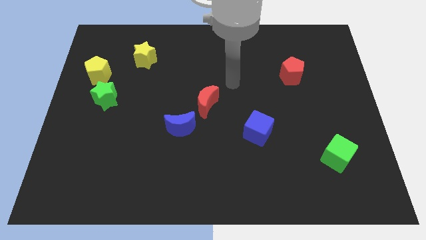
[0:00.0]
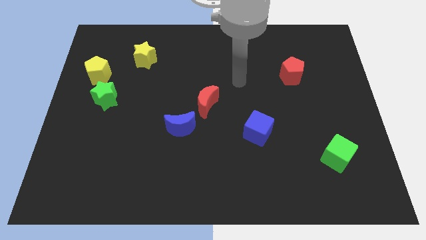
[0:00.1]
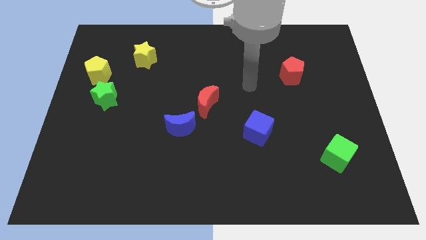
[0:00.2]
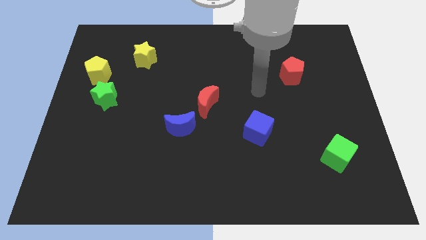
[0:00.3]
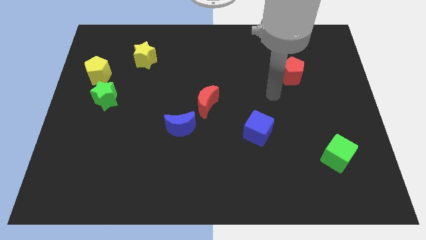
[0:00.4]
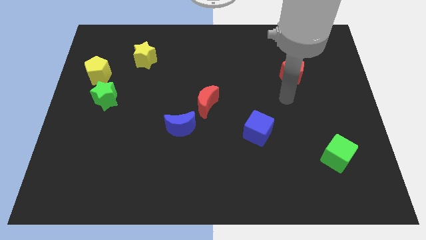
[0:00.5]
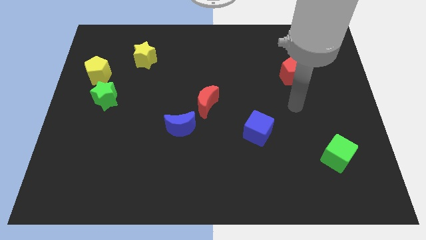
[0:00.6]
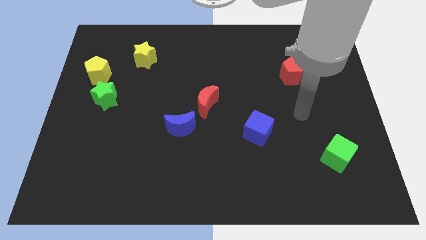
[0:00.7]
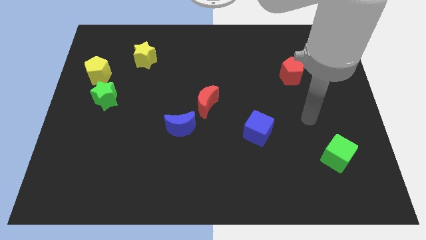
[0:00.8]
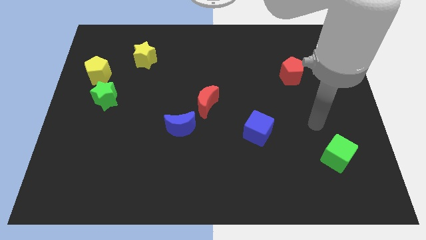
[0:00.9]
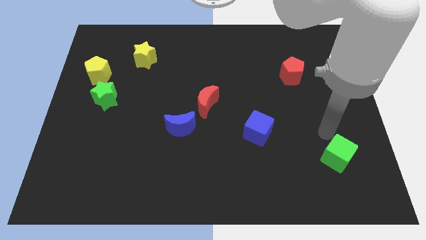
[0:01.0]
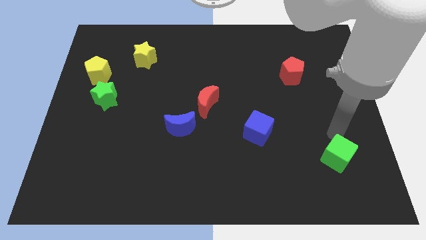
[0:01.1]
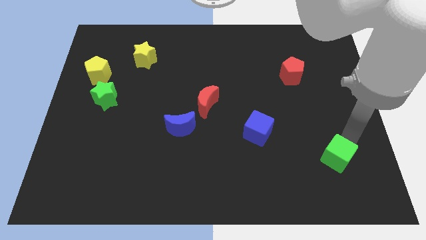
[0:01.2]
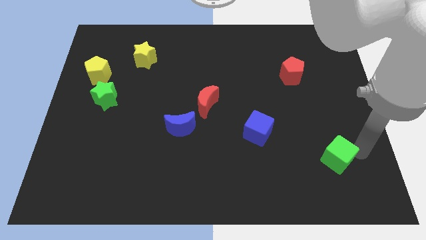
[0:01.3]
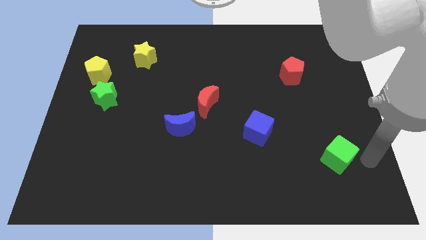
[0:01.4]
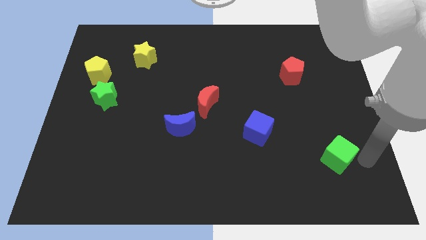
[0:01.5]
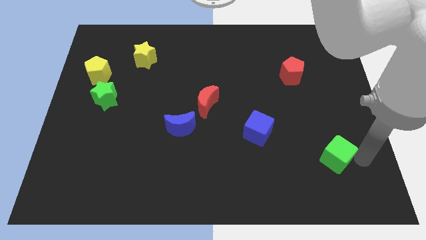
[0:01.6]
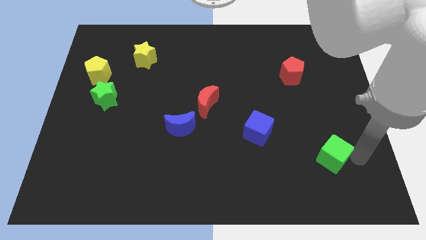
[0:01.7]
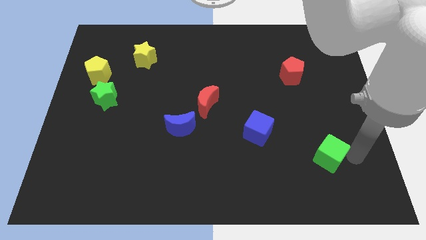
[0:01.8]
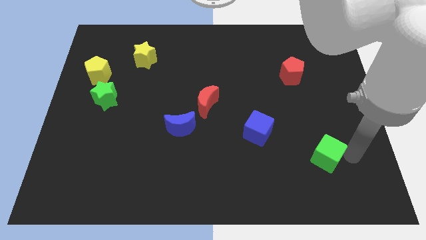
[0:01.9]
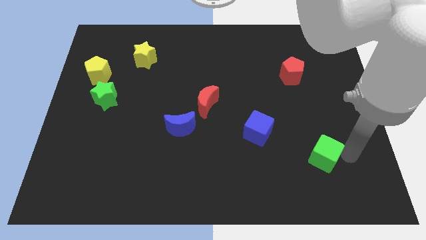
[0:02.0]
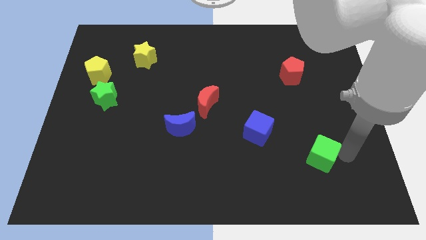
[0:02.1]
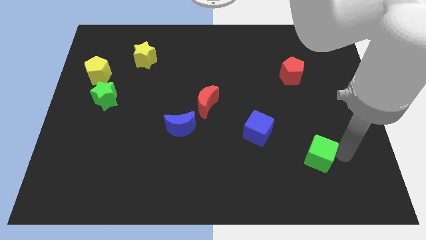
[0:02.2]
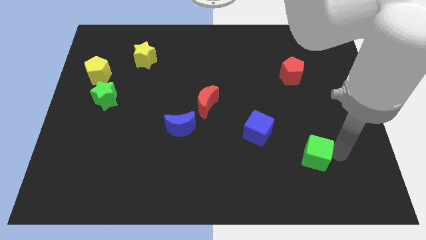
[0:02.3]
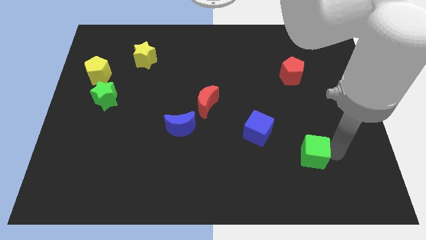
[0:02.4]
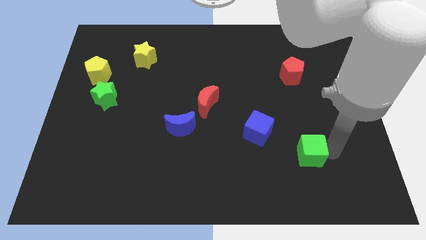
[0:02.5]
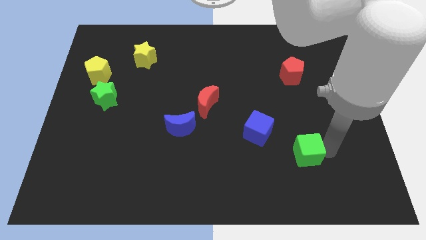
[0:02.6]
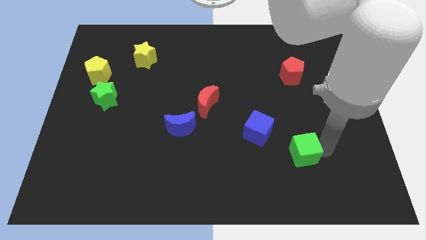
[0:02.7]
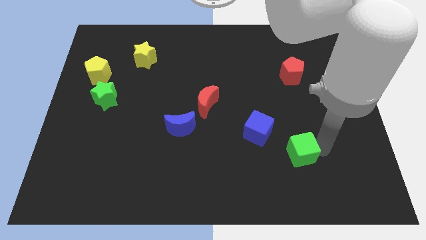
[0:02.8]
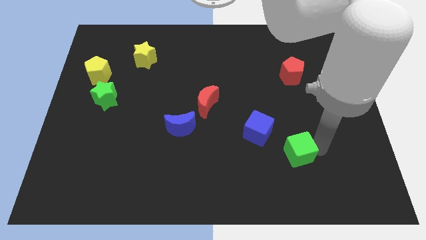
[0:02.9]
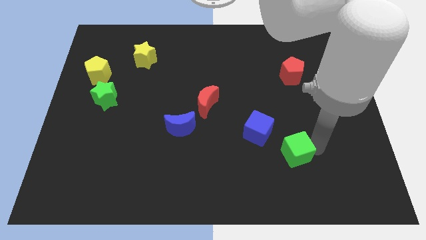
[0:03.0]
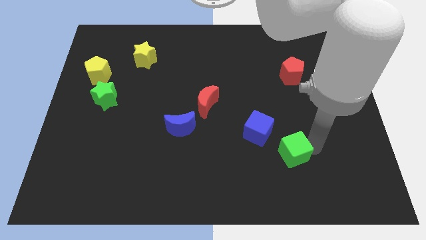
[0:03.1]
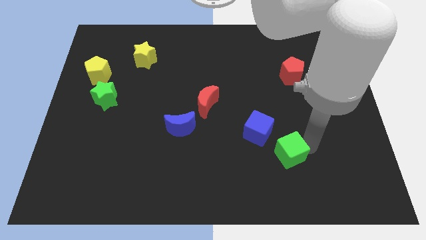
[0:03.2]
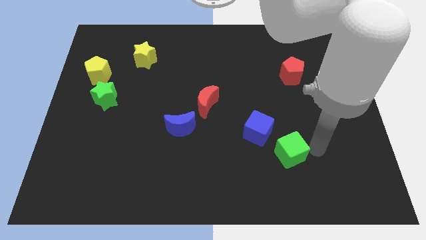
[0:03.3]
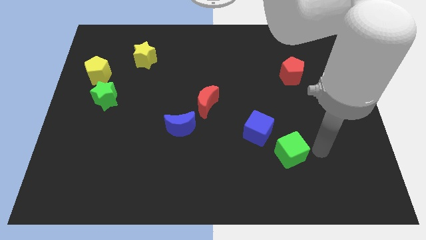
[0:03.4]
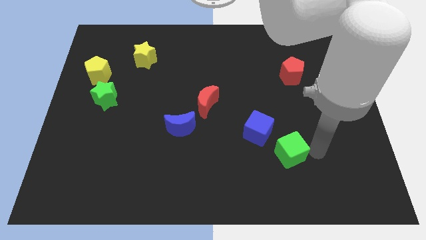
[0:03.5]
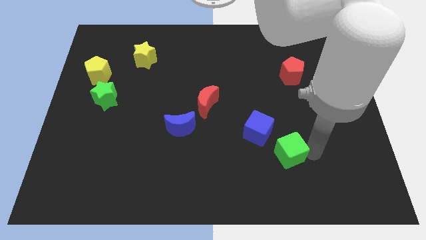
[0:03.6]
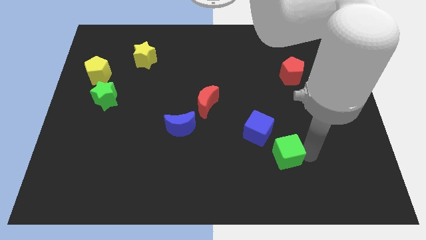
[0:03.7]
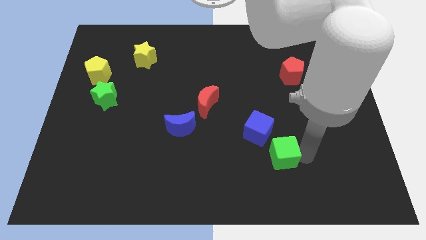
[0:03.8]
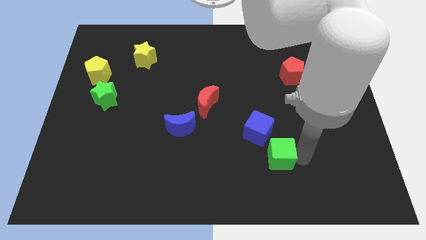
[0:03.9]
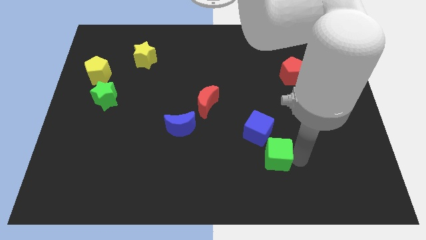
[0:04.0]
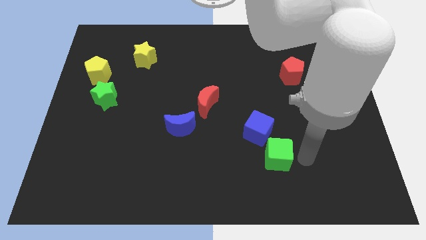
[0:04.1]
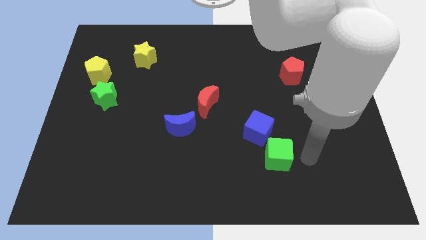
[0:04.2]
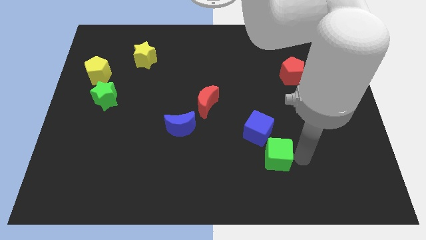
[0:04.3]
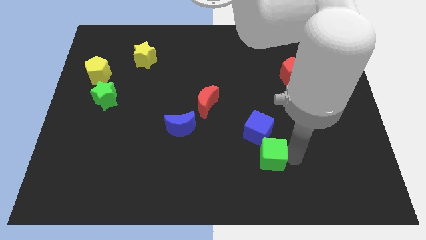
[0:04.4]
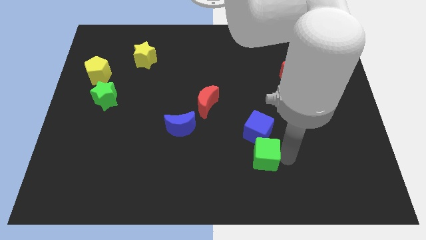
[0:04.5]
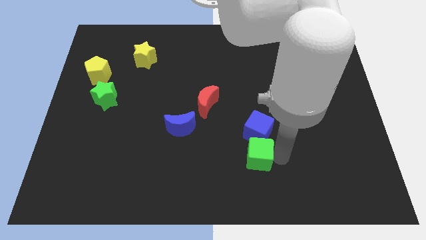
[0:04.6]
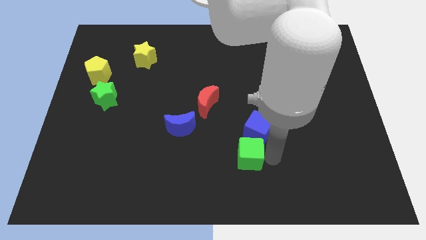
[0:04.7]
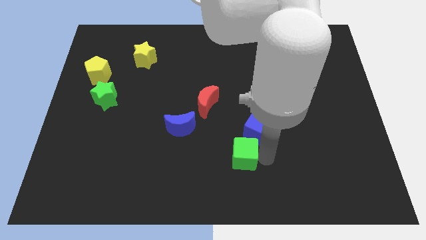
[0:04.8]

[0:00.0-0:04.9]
slide the green cube to the left

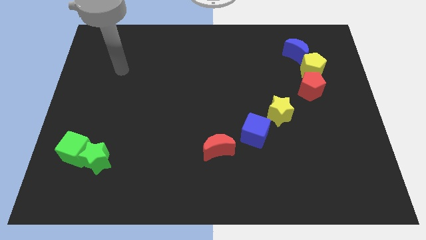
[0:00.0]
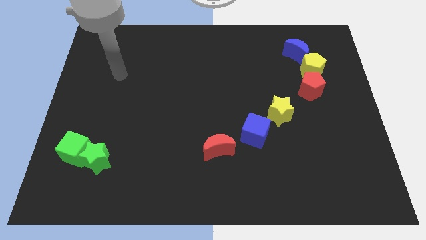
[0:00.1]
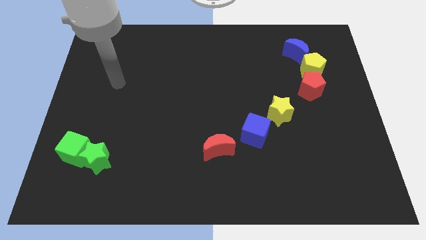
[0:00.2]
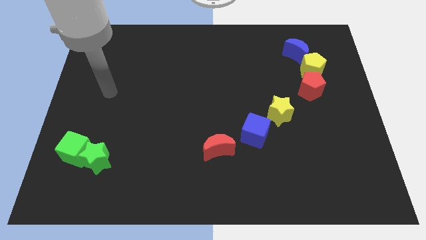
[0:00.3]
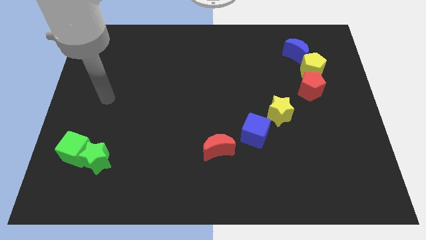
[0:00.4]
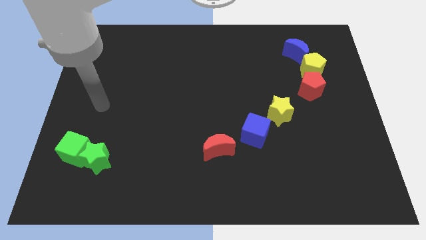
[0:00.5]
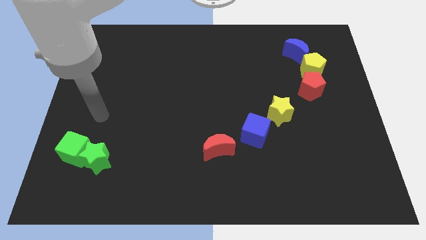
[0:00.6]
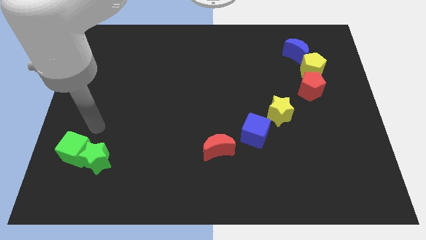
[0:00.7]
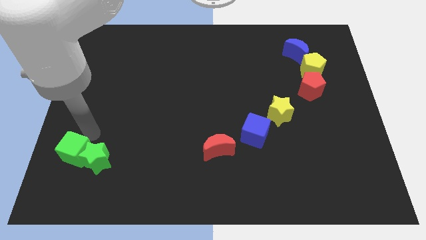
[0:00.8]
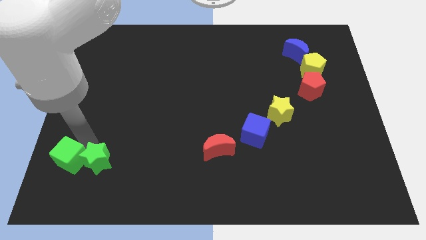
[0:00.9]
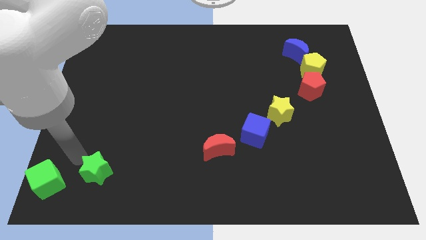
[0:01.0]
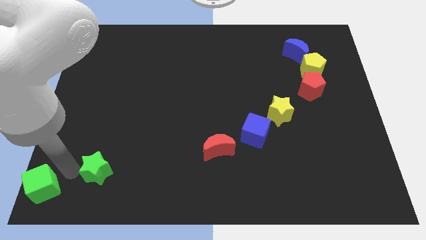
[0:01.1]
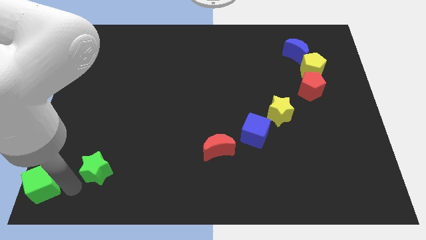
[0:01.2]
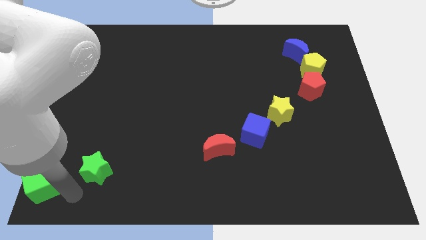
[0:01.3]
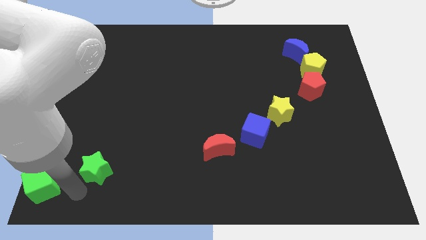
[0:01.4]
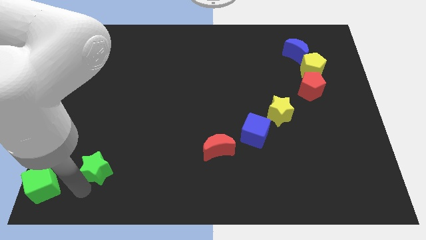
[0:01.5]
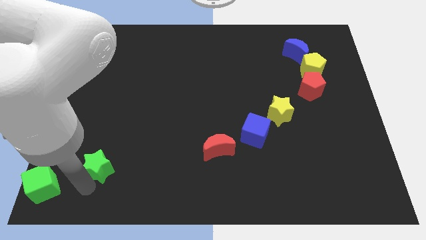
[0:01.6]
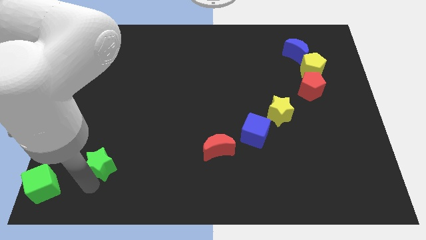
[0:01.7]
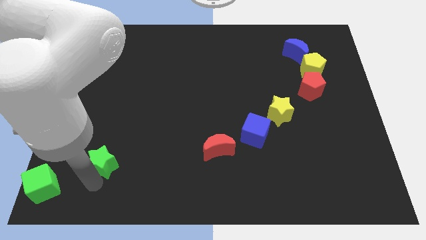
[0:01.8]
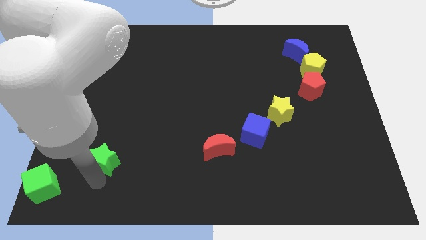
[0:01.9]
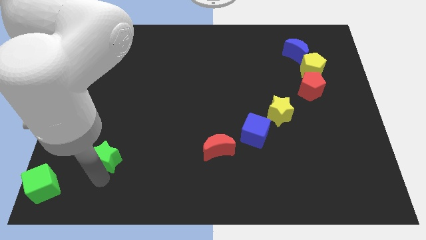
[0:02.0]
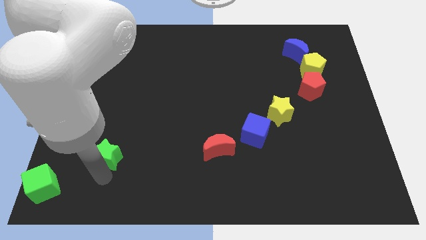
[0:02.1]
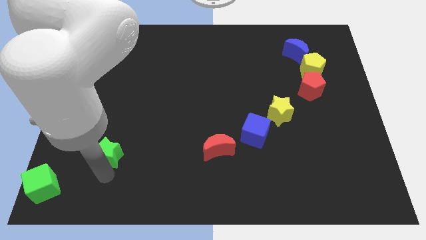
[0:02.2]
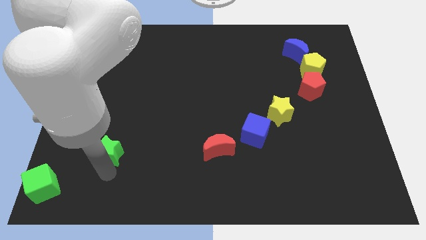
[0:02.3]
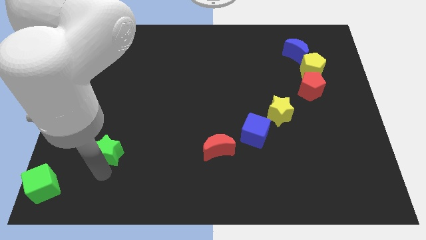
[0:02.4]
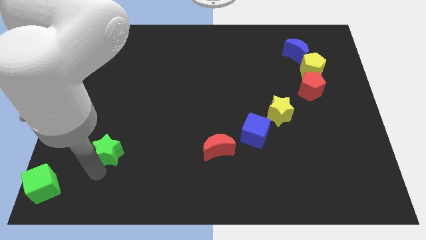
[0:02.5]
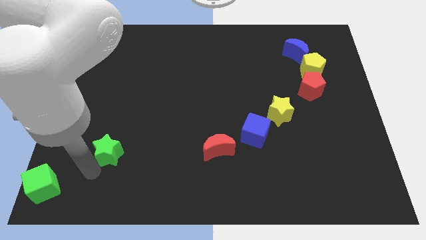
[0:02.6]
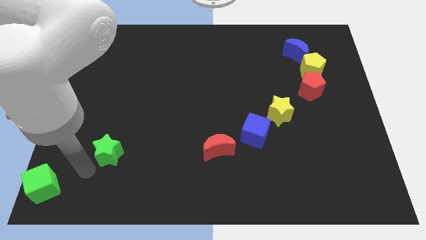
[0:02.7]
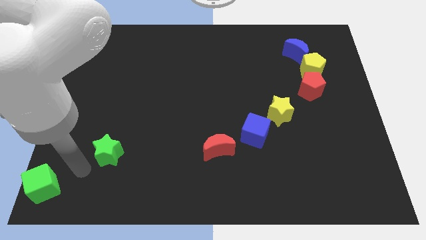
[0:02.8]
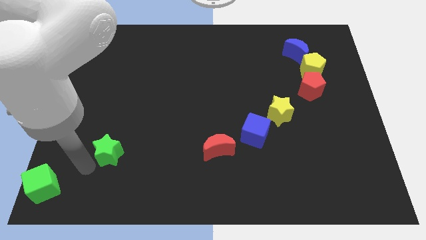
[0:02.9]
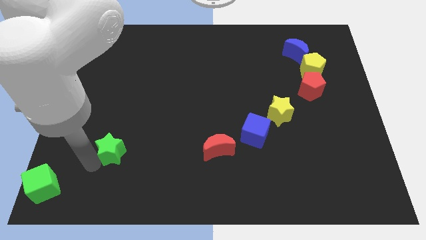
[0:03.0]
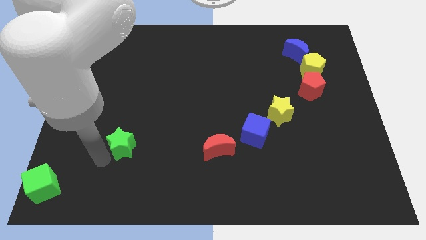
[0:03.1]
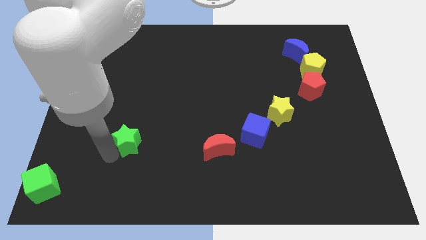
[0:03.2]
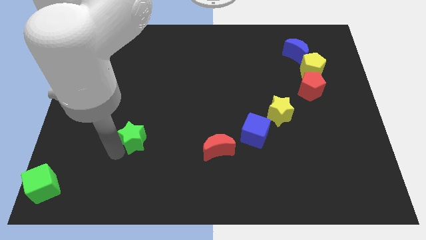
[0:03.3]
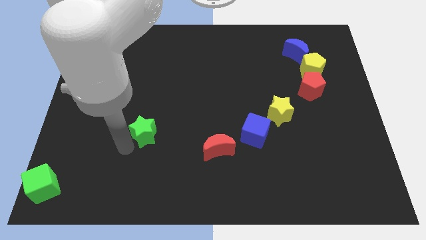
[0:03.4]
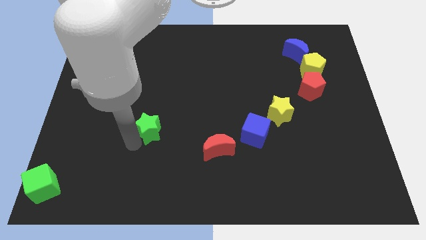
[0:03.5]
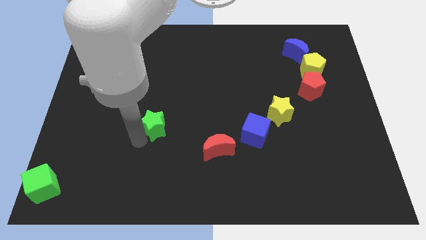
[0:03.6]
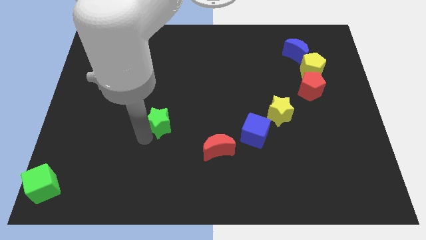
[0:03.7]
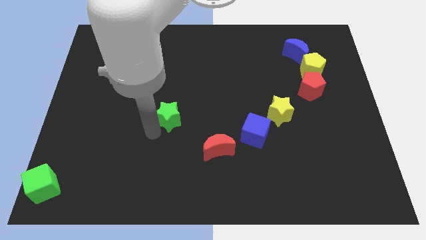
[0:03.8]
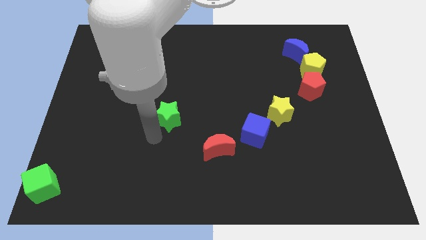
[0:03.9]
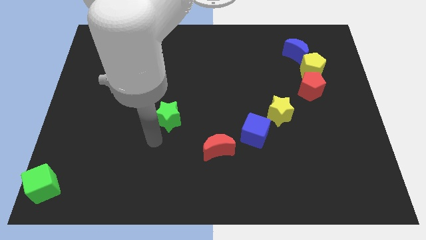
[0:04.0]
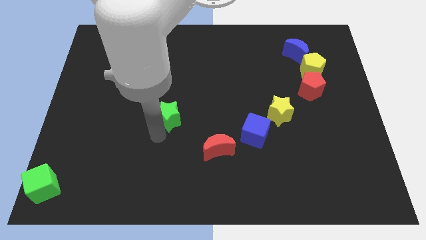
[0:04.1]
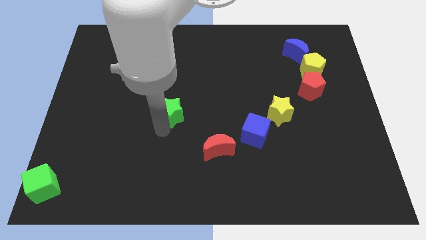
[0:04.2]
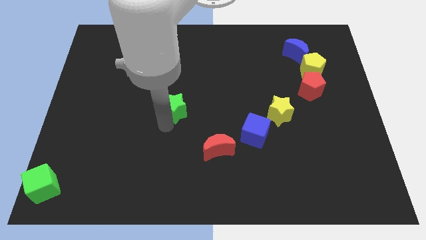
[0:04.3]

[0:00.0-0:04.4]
slide the green star up and right diagonally
